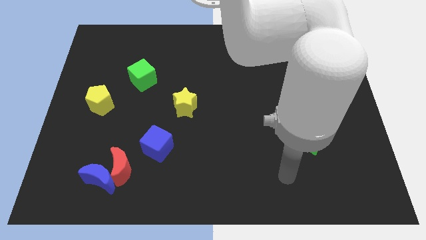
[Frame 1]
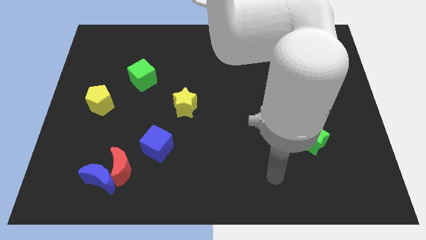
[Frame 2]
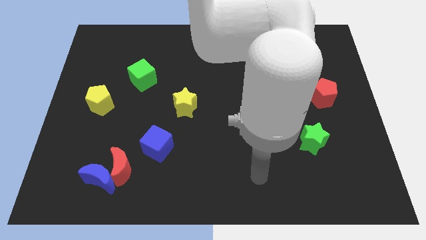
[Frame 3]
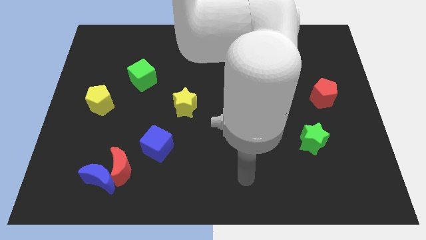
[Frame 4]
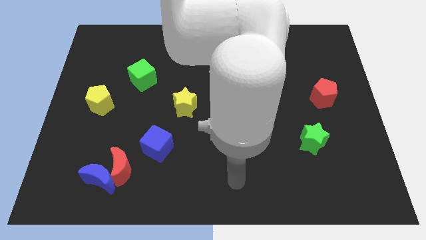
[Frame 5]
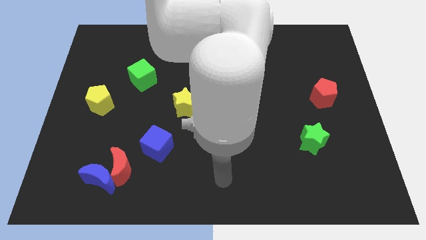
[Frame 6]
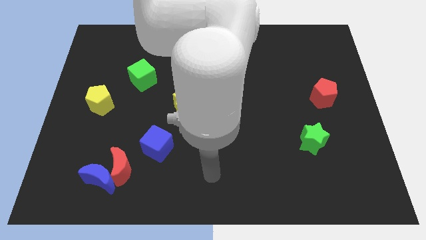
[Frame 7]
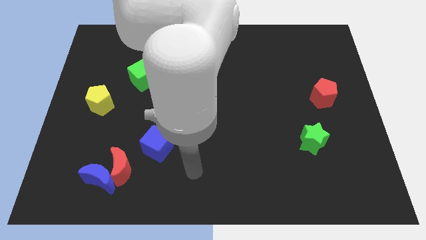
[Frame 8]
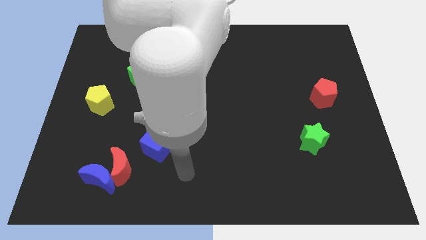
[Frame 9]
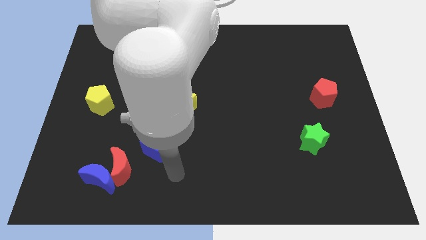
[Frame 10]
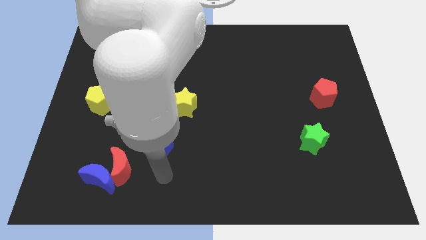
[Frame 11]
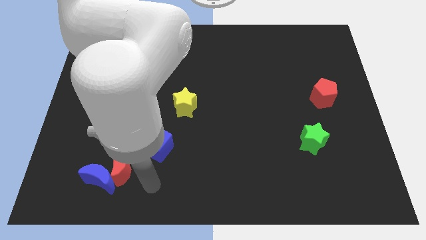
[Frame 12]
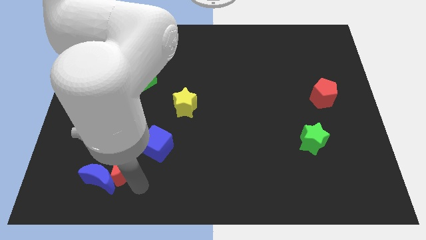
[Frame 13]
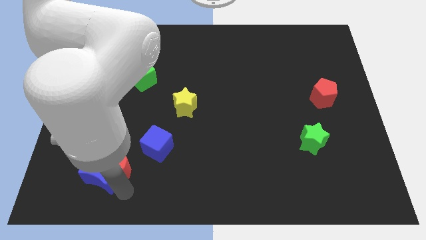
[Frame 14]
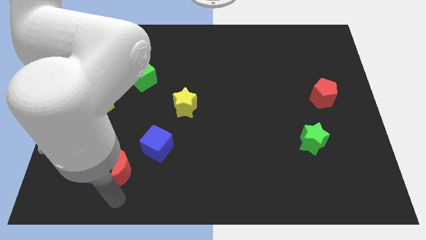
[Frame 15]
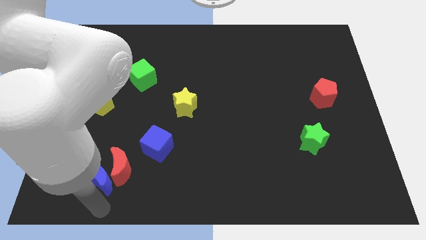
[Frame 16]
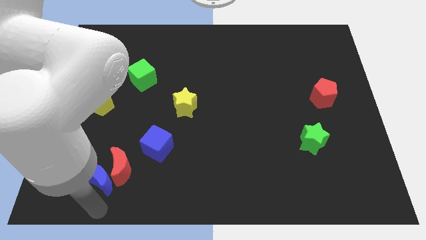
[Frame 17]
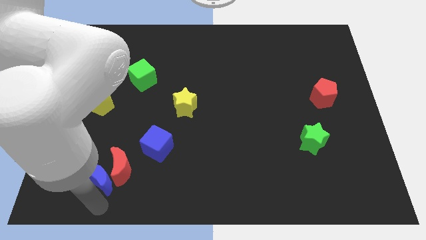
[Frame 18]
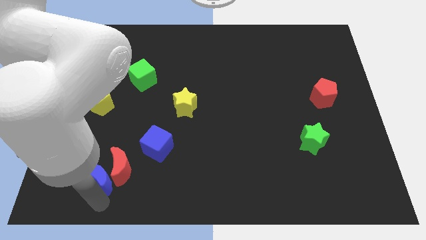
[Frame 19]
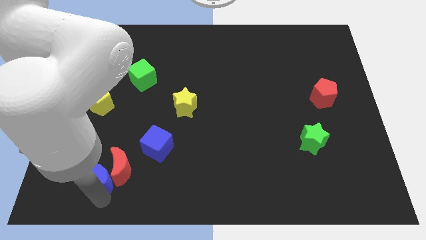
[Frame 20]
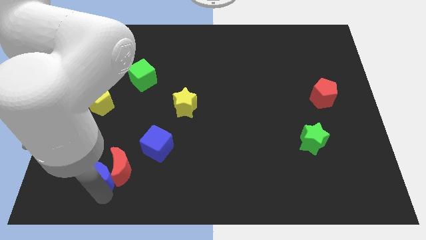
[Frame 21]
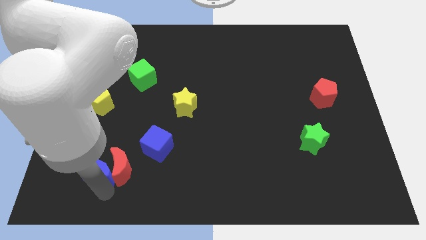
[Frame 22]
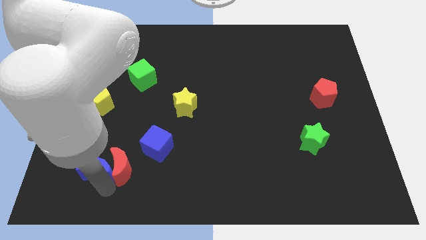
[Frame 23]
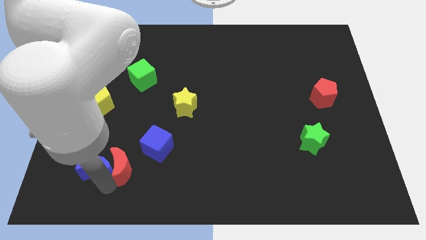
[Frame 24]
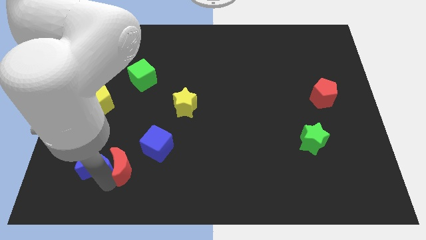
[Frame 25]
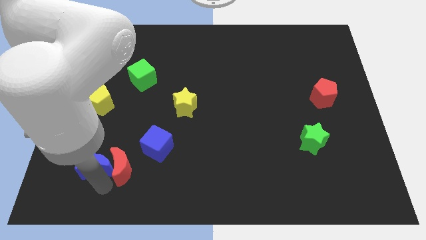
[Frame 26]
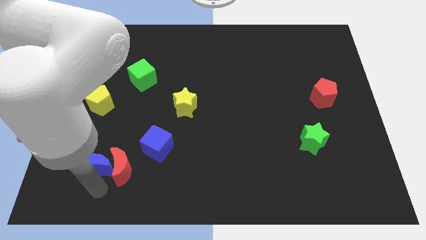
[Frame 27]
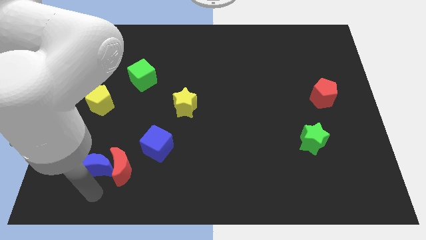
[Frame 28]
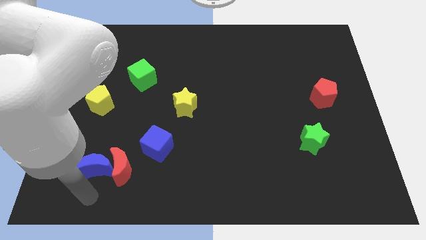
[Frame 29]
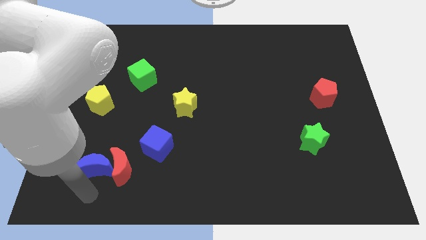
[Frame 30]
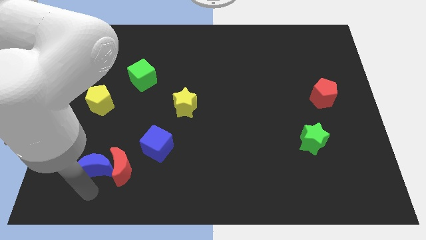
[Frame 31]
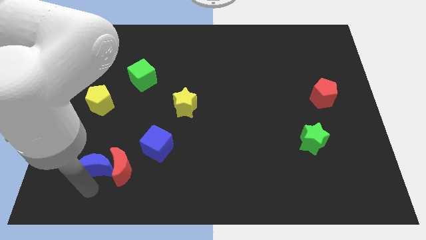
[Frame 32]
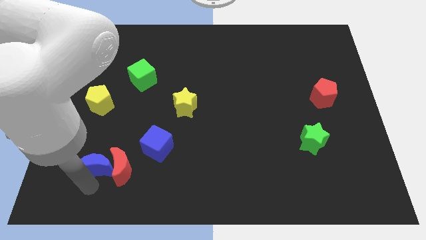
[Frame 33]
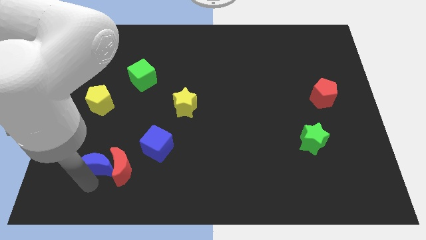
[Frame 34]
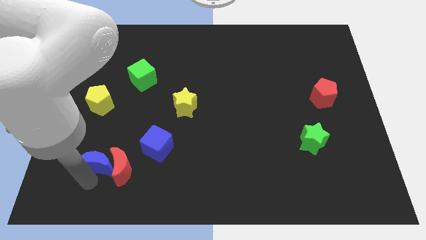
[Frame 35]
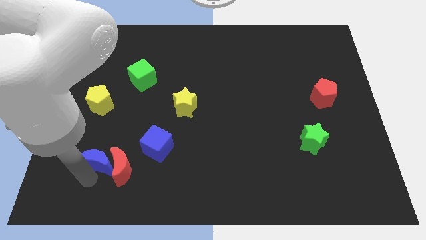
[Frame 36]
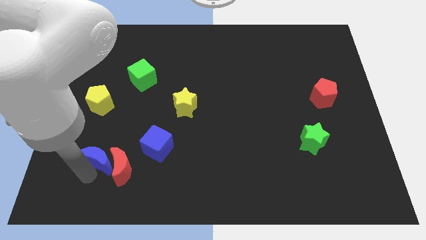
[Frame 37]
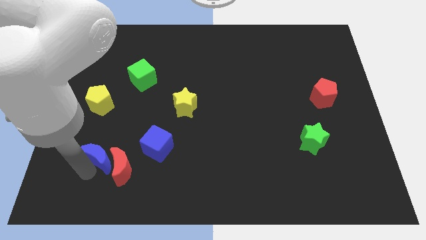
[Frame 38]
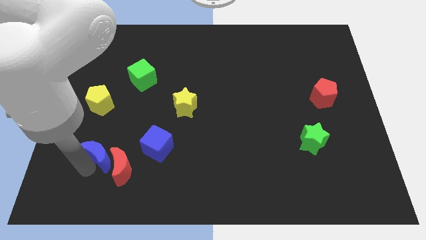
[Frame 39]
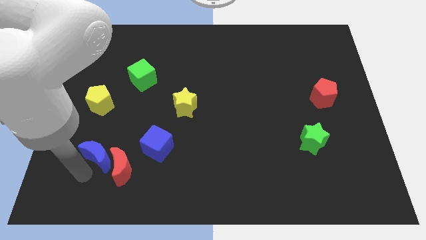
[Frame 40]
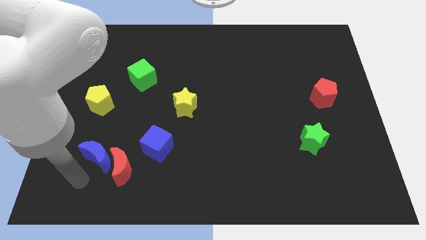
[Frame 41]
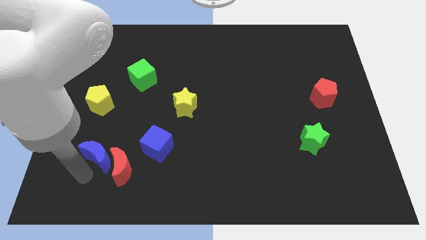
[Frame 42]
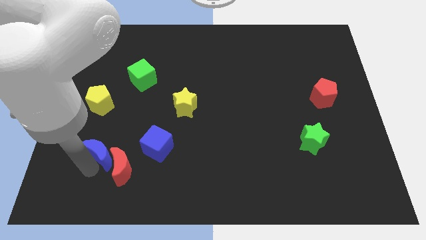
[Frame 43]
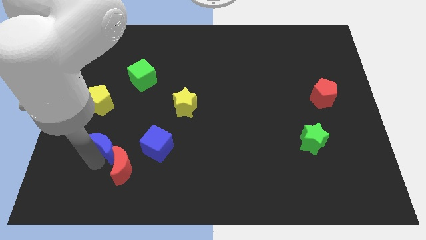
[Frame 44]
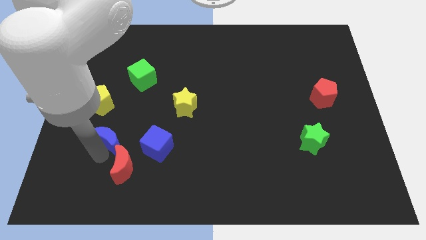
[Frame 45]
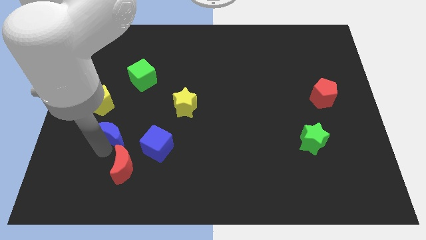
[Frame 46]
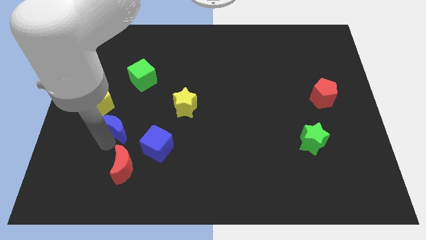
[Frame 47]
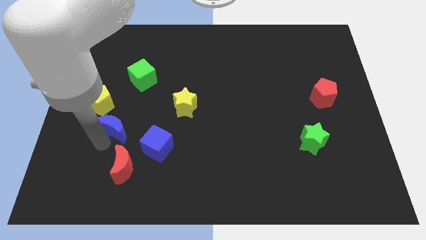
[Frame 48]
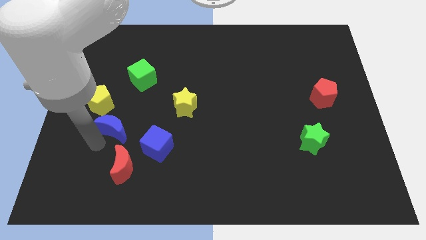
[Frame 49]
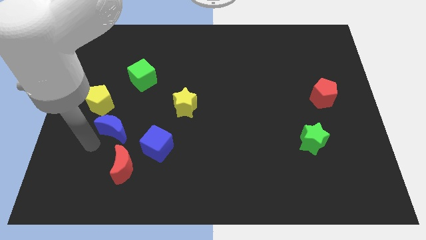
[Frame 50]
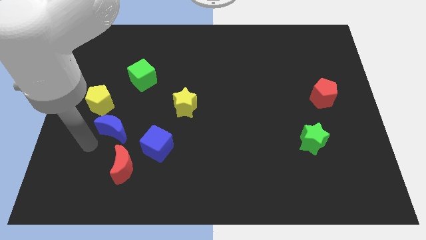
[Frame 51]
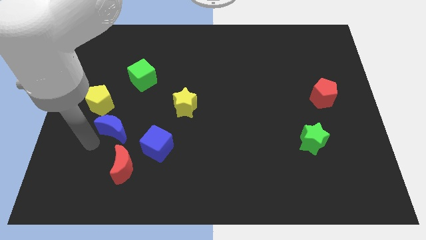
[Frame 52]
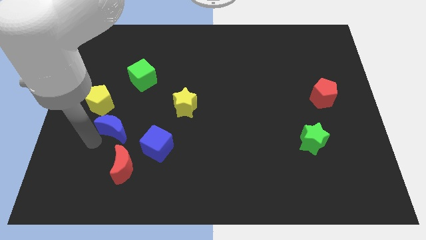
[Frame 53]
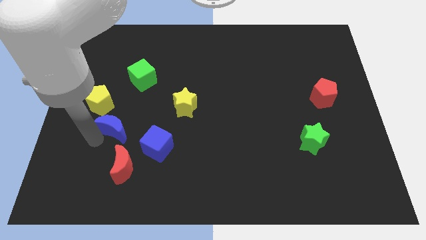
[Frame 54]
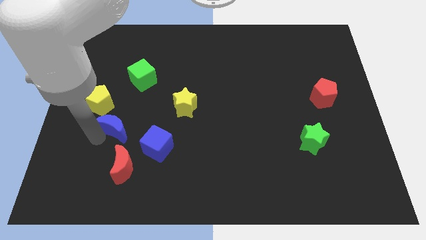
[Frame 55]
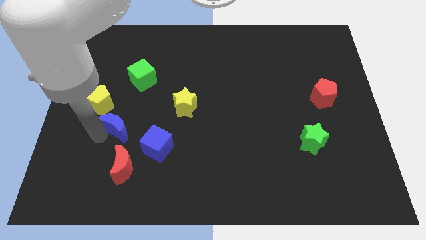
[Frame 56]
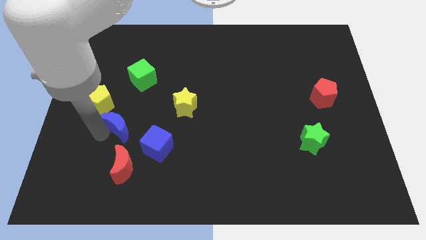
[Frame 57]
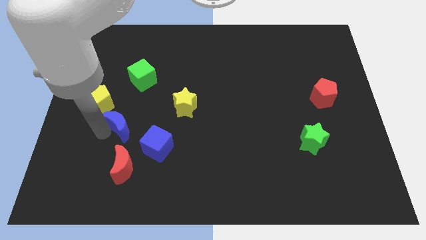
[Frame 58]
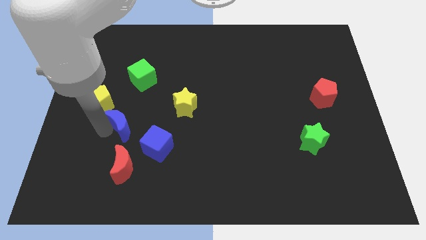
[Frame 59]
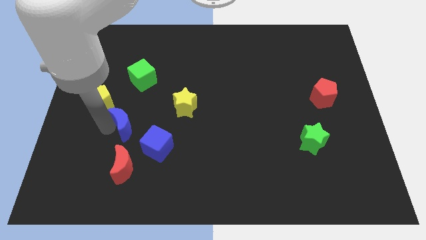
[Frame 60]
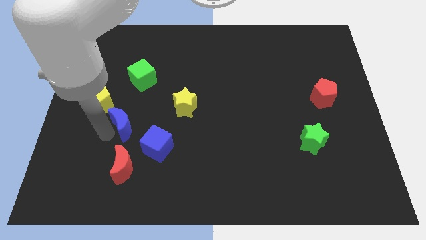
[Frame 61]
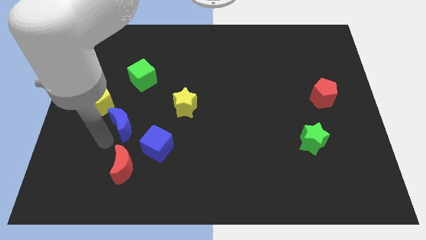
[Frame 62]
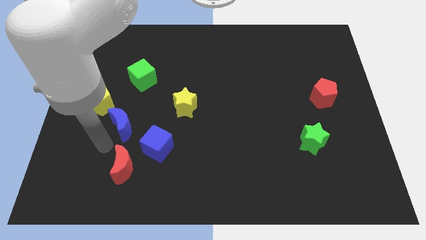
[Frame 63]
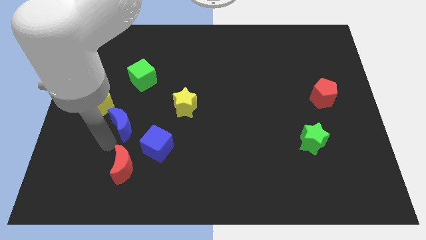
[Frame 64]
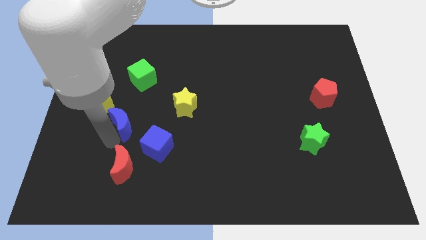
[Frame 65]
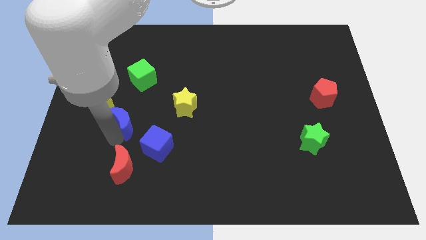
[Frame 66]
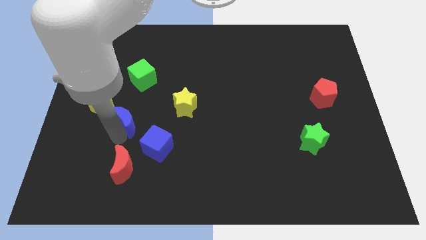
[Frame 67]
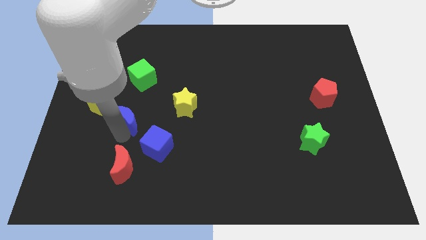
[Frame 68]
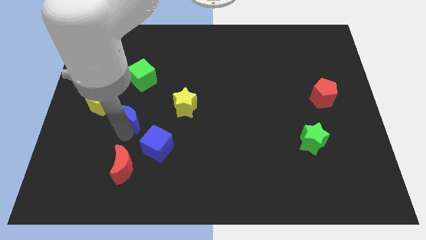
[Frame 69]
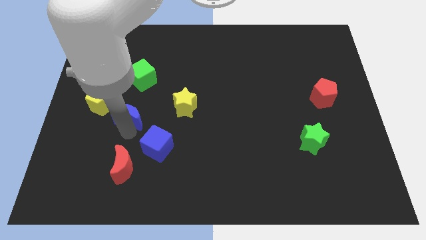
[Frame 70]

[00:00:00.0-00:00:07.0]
slide the blue moon just right of the yellow pentagon

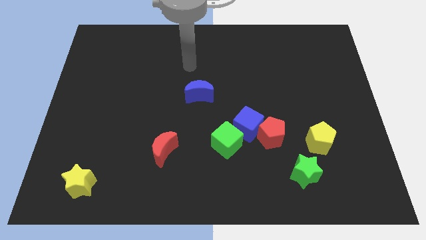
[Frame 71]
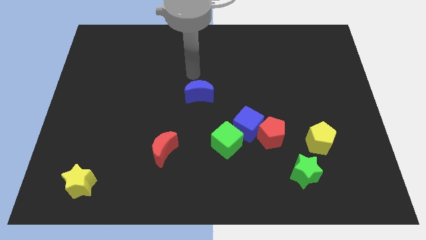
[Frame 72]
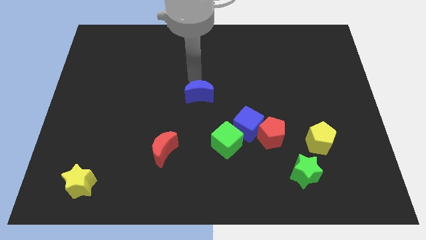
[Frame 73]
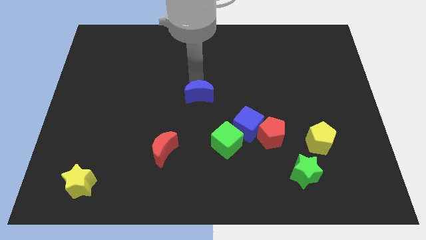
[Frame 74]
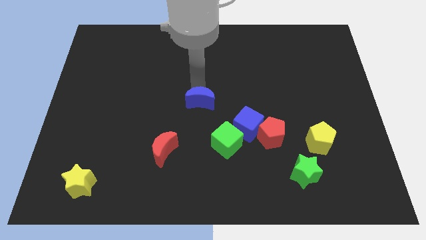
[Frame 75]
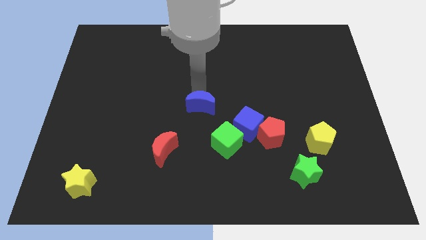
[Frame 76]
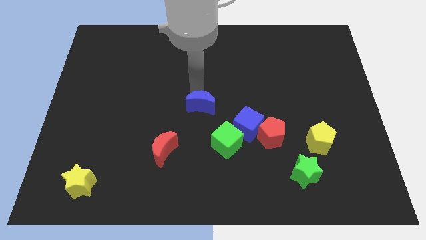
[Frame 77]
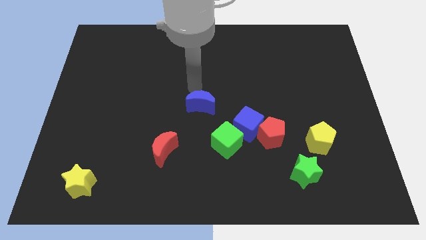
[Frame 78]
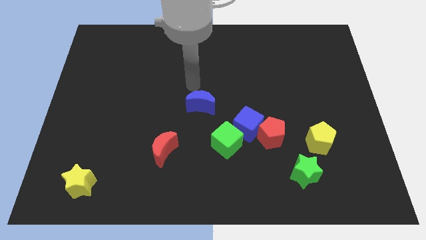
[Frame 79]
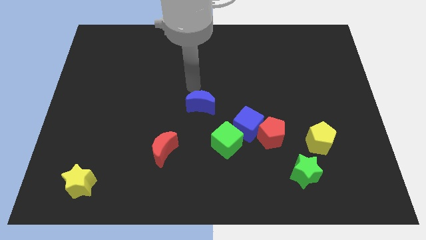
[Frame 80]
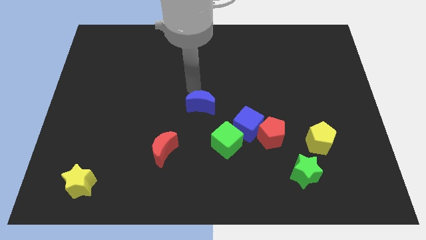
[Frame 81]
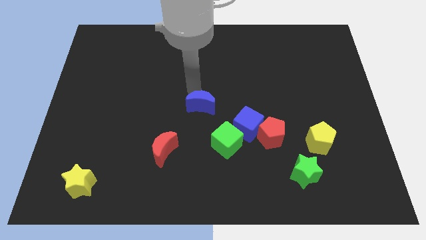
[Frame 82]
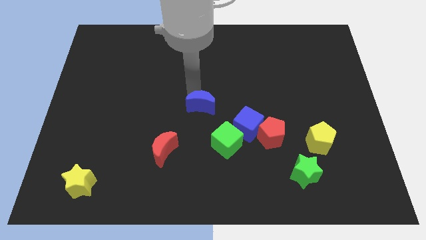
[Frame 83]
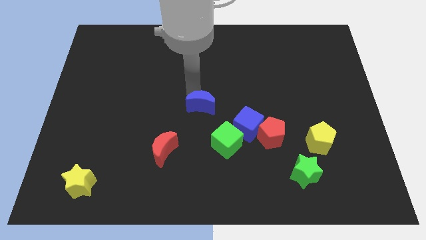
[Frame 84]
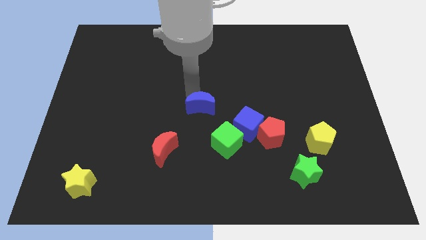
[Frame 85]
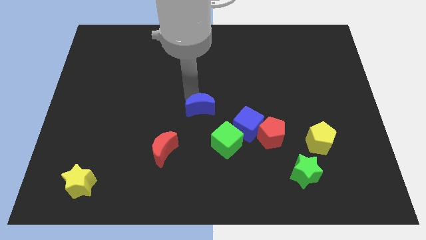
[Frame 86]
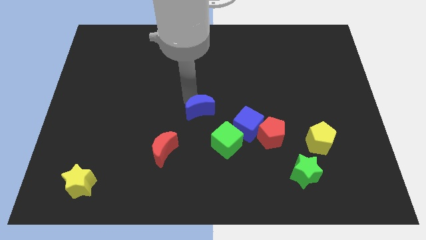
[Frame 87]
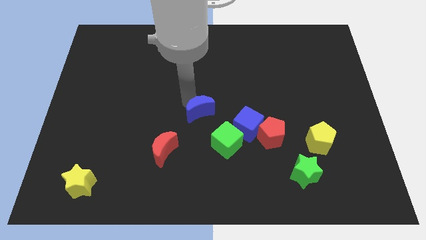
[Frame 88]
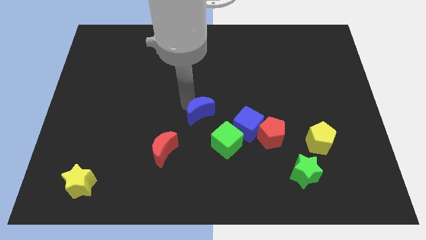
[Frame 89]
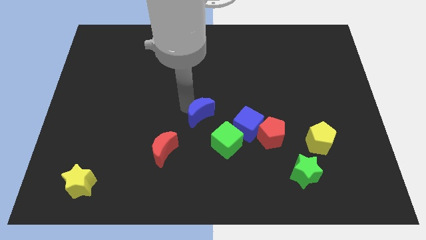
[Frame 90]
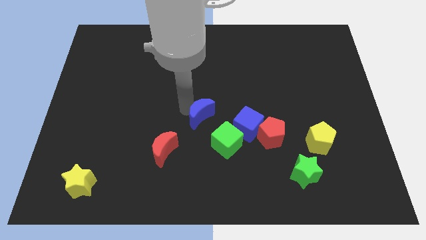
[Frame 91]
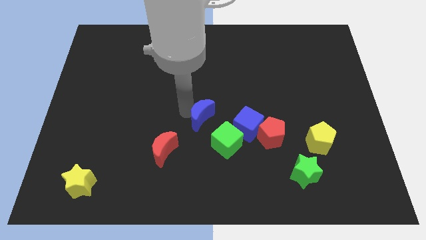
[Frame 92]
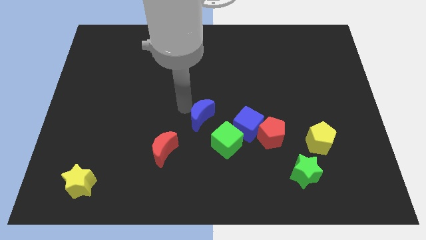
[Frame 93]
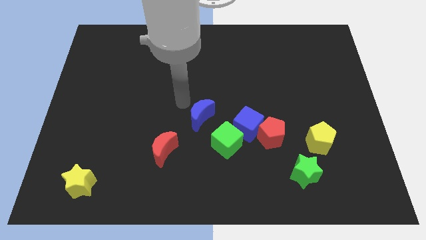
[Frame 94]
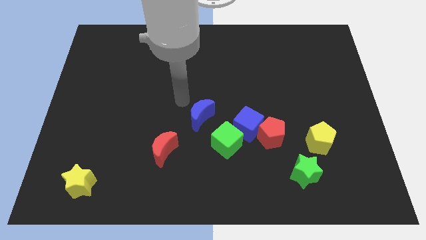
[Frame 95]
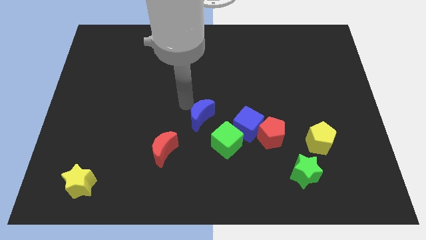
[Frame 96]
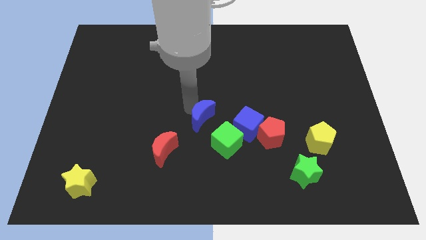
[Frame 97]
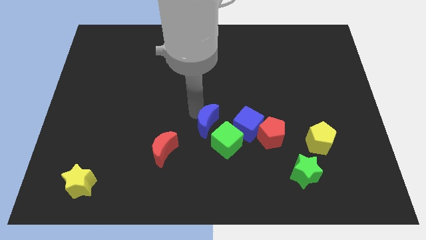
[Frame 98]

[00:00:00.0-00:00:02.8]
put the blue moon to the left side of the red pentagon
